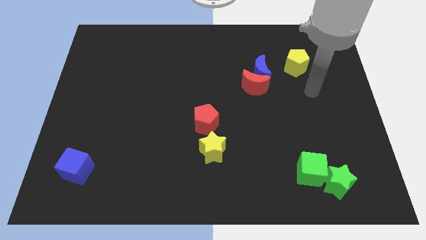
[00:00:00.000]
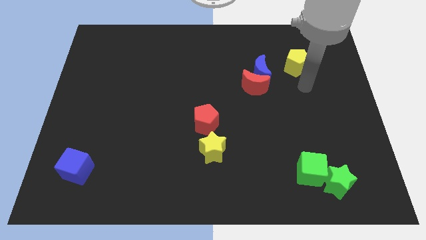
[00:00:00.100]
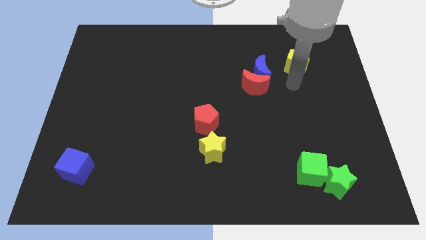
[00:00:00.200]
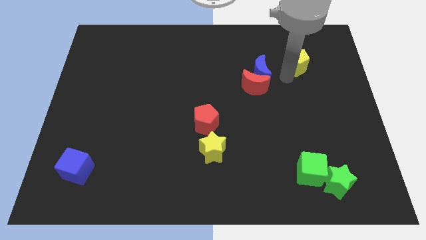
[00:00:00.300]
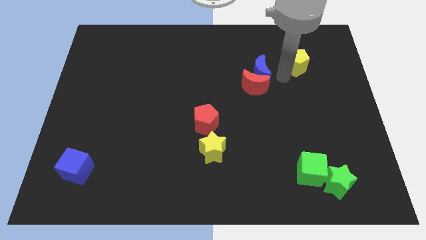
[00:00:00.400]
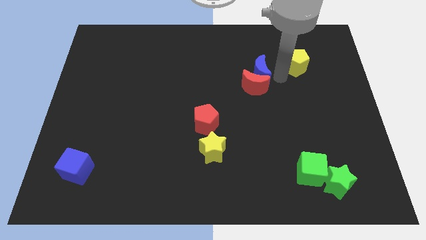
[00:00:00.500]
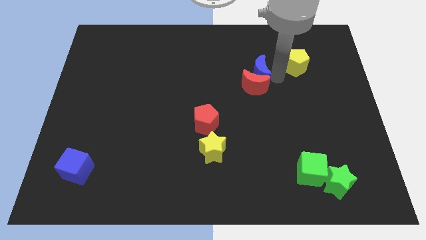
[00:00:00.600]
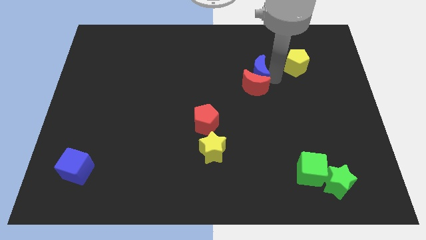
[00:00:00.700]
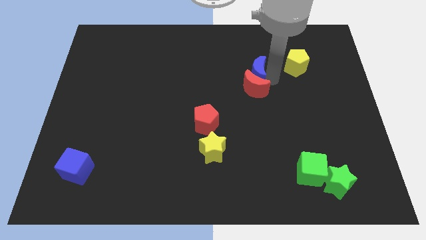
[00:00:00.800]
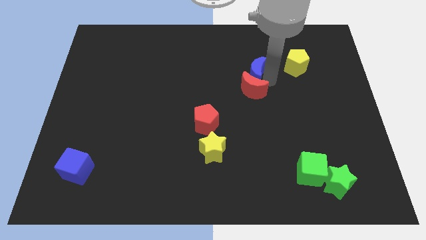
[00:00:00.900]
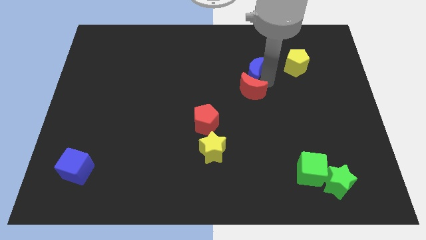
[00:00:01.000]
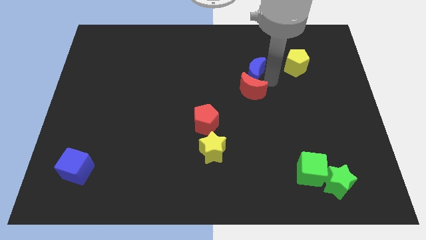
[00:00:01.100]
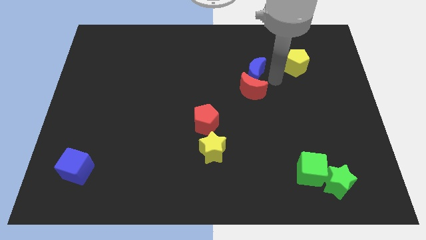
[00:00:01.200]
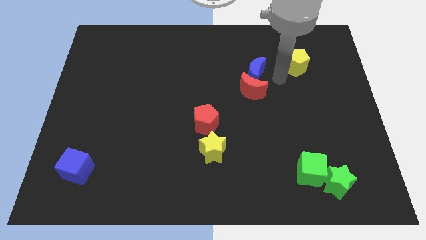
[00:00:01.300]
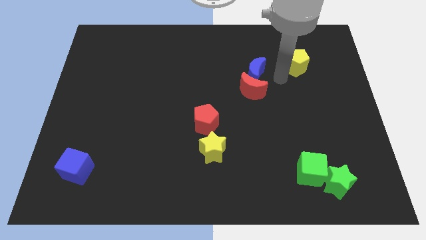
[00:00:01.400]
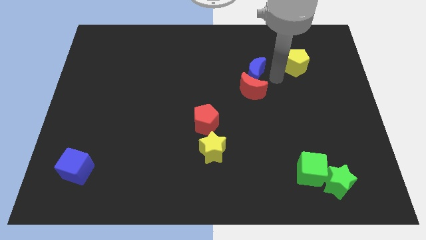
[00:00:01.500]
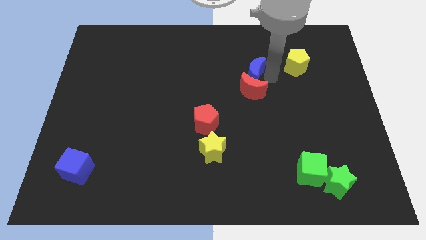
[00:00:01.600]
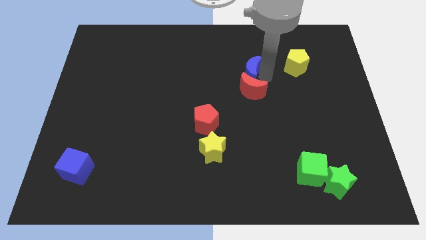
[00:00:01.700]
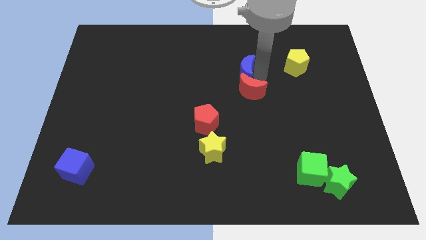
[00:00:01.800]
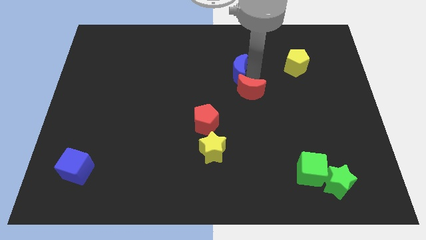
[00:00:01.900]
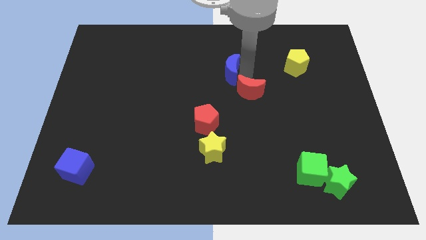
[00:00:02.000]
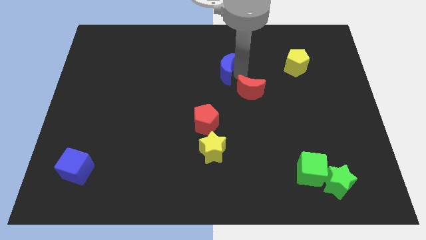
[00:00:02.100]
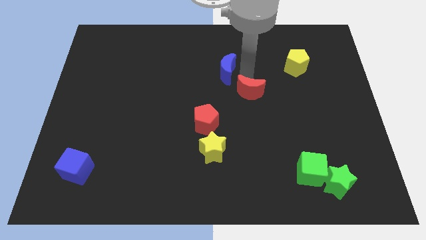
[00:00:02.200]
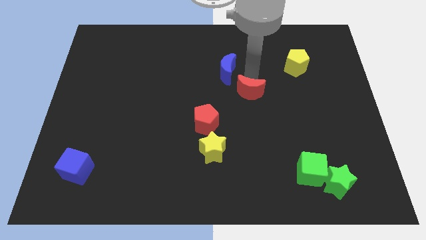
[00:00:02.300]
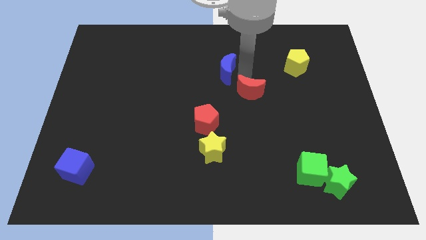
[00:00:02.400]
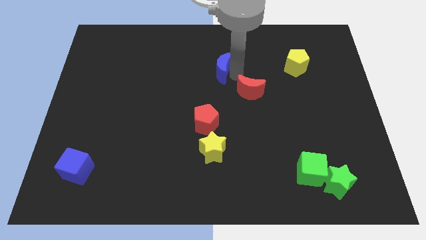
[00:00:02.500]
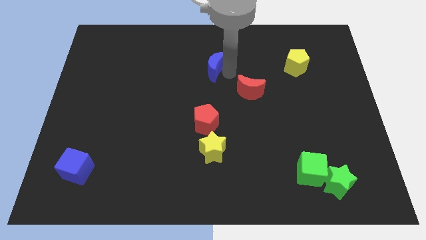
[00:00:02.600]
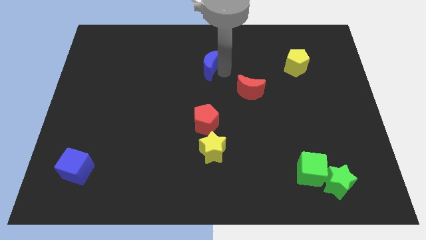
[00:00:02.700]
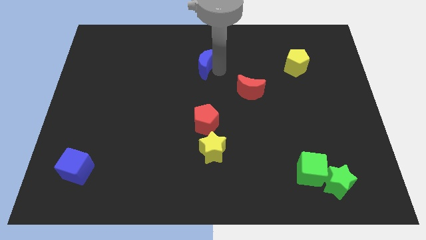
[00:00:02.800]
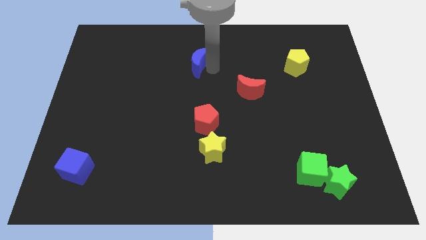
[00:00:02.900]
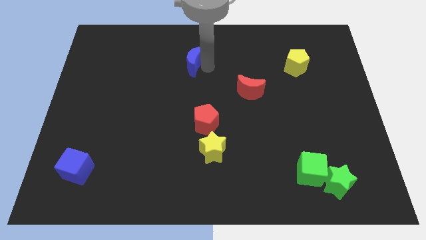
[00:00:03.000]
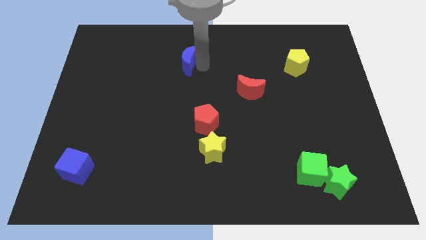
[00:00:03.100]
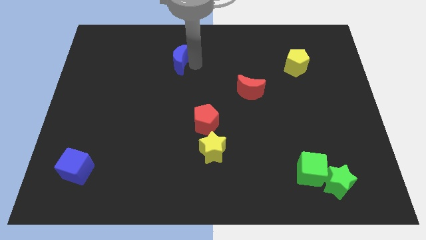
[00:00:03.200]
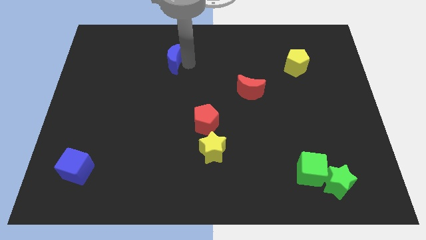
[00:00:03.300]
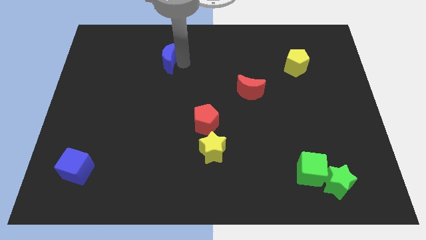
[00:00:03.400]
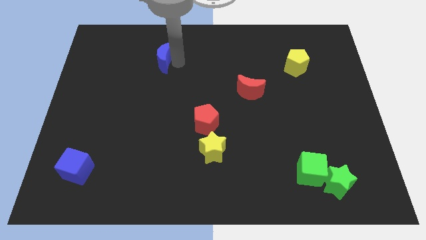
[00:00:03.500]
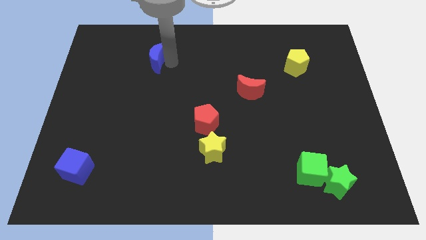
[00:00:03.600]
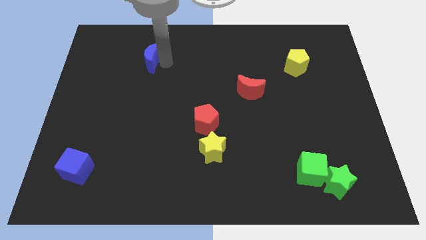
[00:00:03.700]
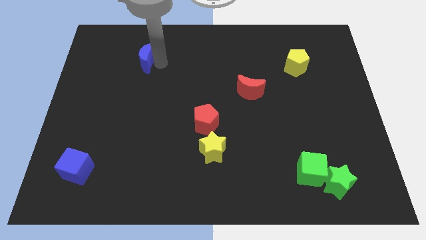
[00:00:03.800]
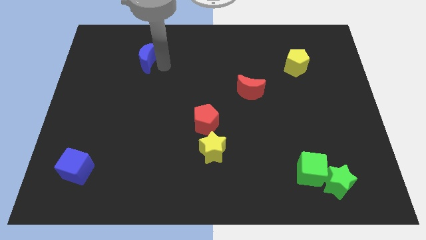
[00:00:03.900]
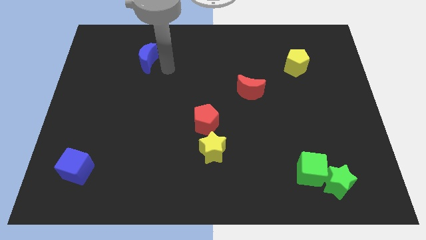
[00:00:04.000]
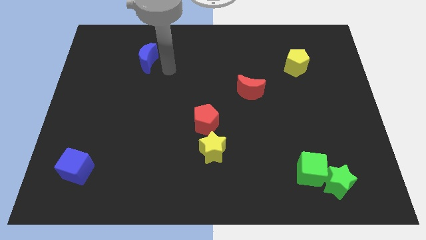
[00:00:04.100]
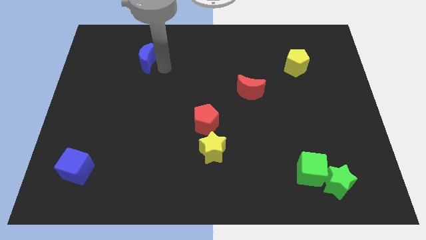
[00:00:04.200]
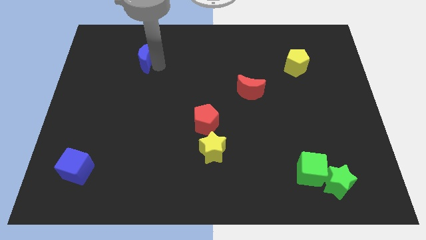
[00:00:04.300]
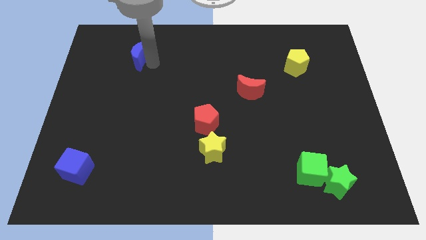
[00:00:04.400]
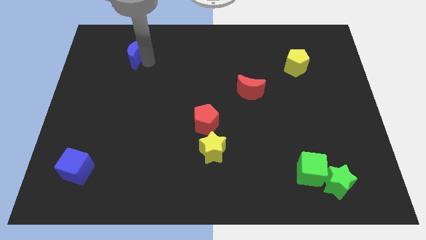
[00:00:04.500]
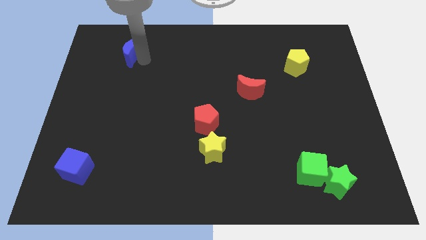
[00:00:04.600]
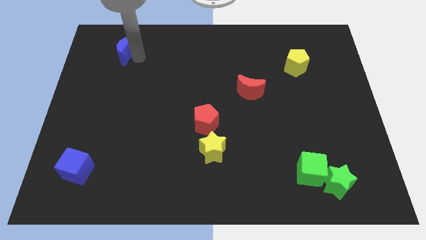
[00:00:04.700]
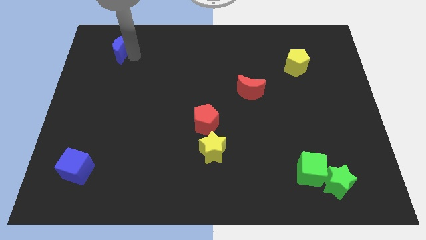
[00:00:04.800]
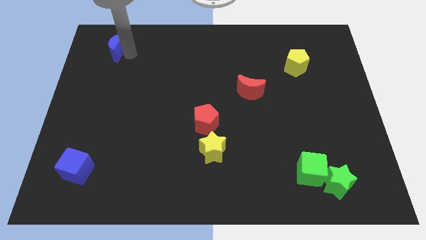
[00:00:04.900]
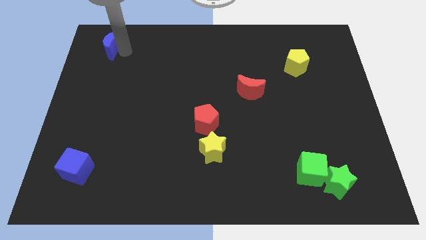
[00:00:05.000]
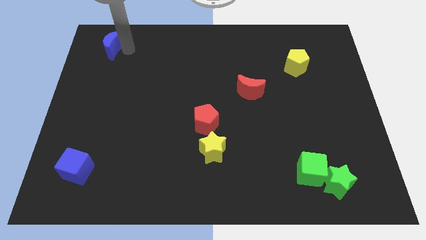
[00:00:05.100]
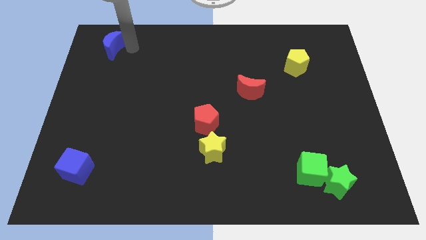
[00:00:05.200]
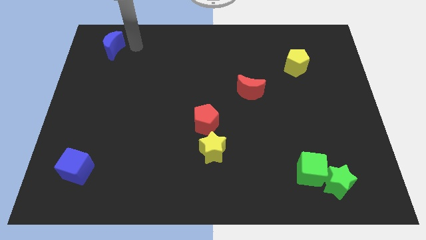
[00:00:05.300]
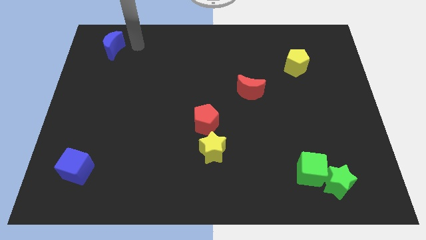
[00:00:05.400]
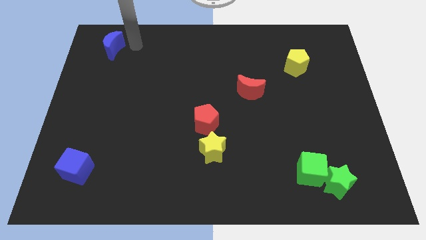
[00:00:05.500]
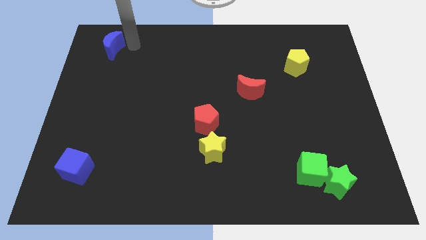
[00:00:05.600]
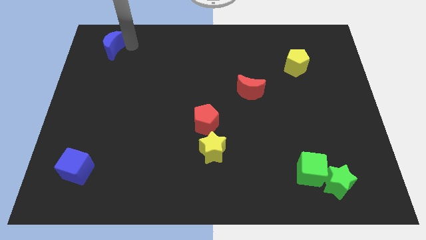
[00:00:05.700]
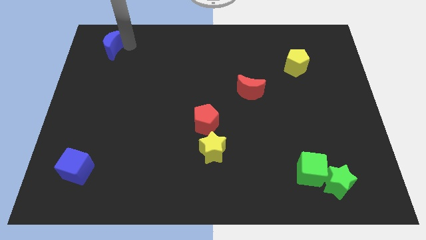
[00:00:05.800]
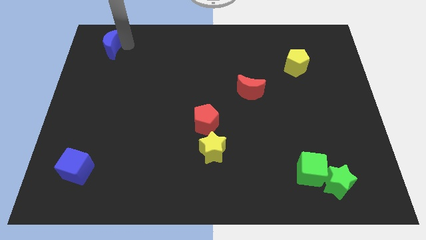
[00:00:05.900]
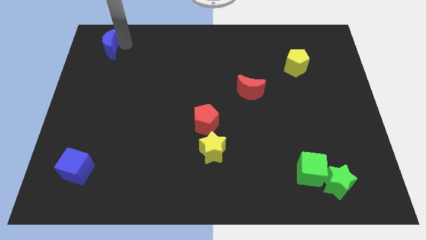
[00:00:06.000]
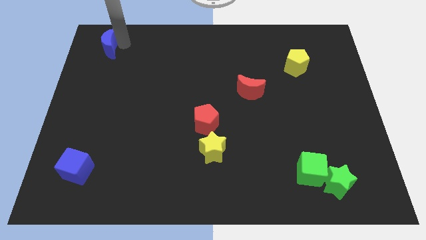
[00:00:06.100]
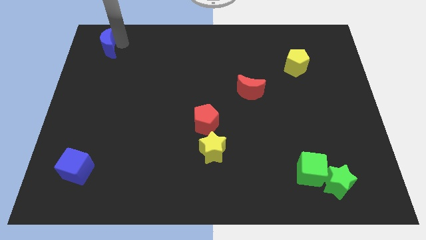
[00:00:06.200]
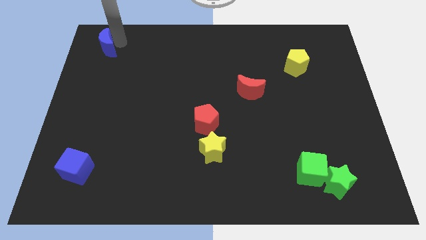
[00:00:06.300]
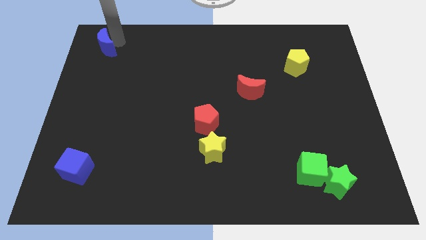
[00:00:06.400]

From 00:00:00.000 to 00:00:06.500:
slide the blue moon to the top left
